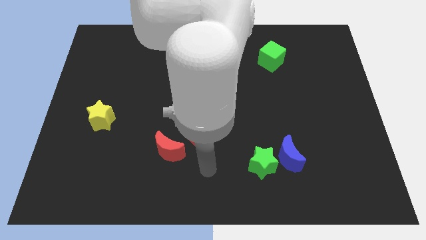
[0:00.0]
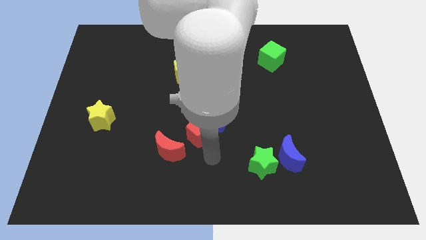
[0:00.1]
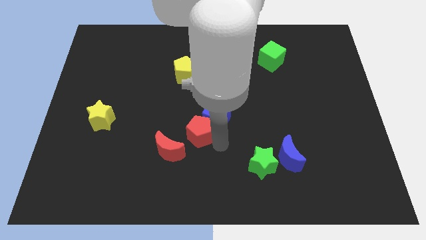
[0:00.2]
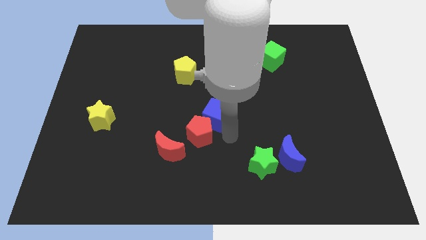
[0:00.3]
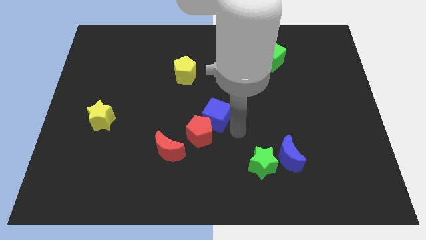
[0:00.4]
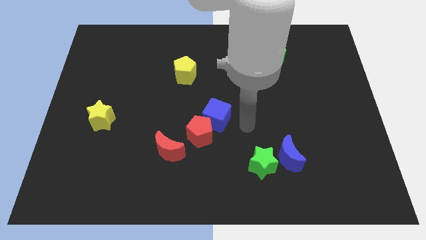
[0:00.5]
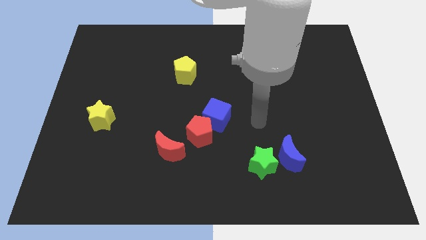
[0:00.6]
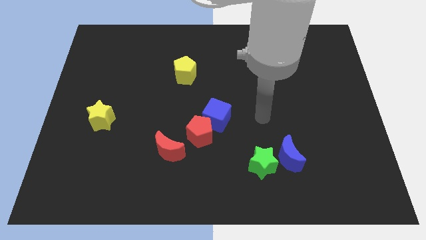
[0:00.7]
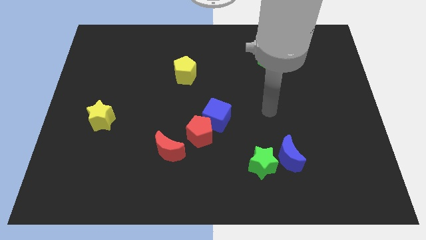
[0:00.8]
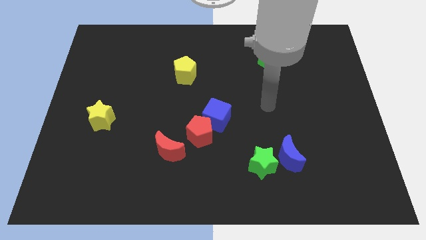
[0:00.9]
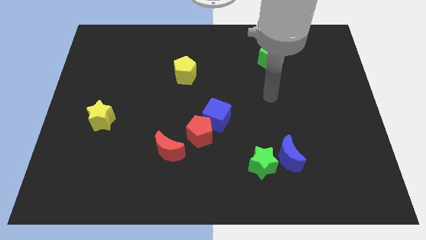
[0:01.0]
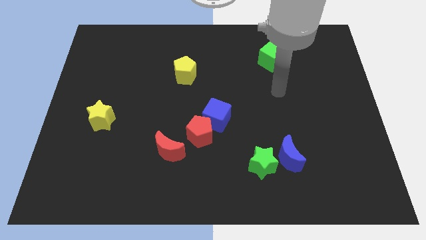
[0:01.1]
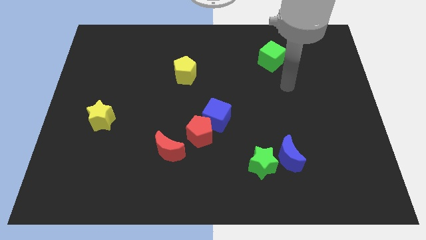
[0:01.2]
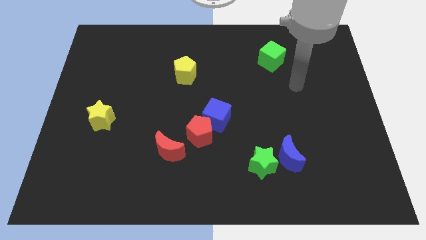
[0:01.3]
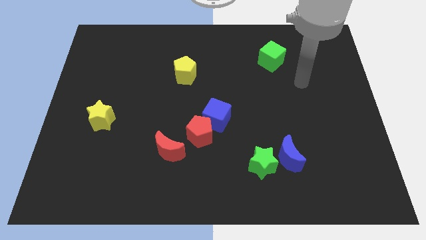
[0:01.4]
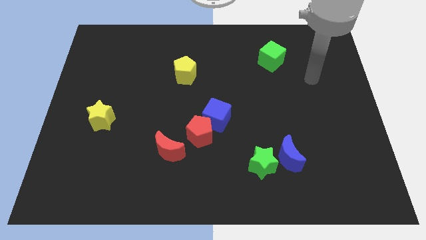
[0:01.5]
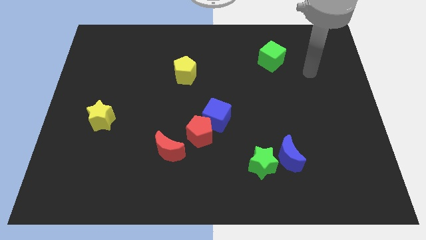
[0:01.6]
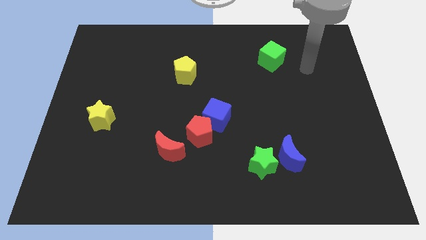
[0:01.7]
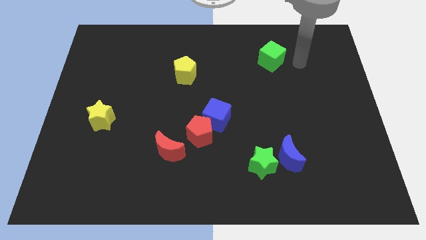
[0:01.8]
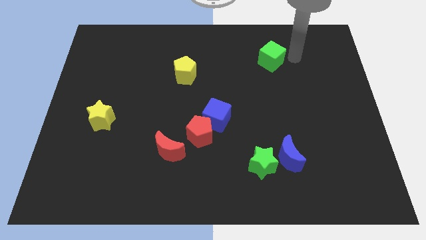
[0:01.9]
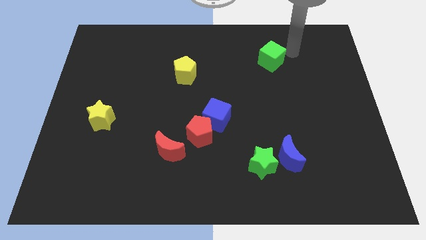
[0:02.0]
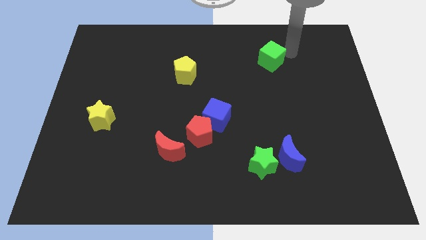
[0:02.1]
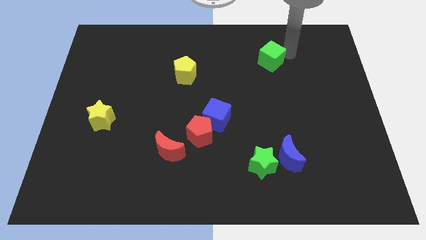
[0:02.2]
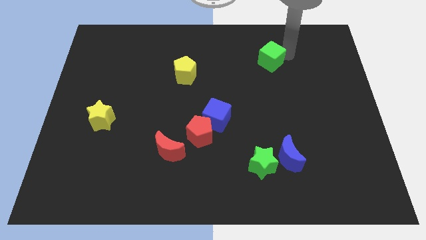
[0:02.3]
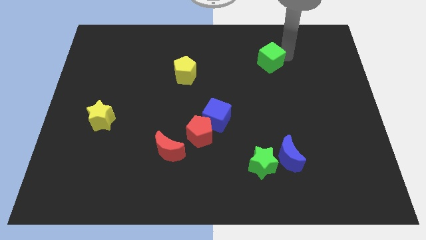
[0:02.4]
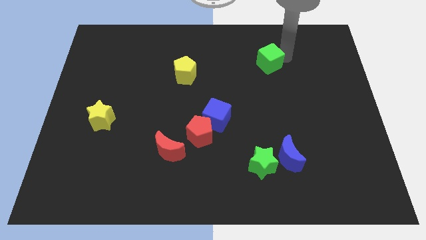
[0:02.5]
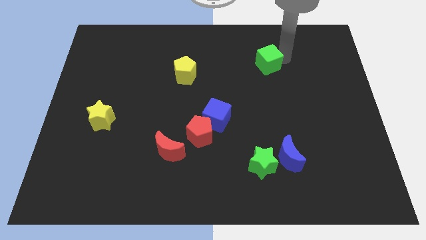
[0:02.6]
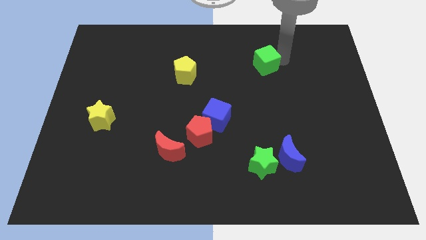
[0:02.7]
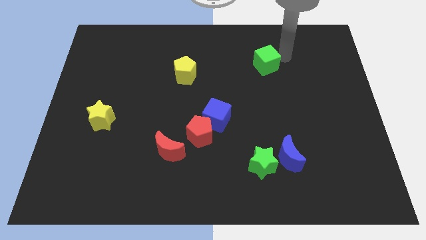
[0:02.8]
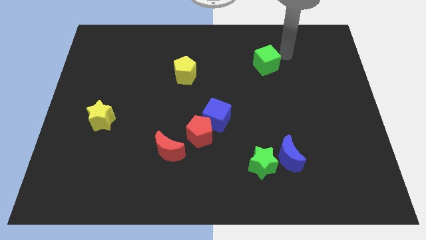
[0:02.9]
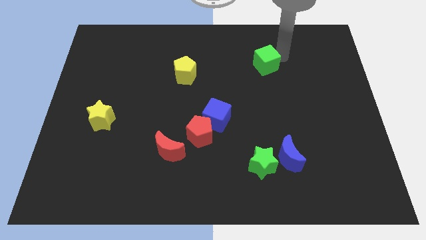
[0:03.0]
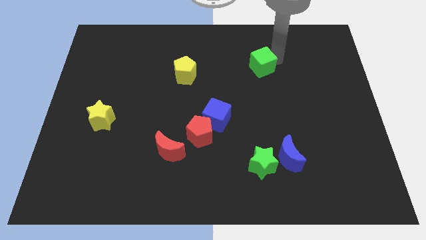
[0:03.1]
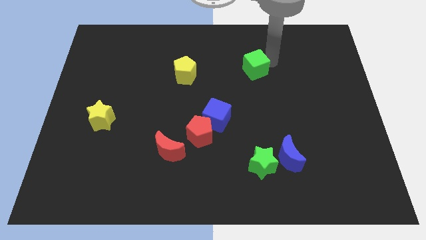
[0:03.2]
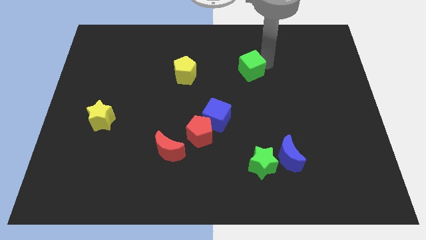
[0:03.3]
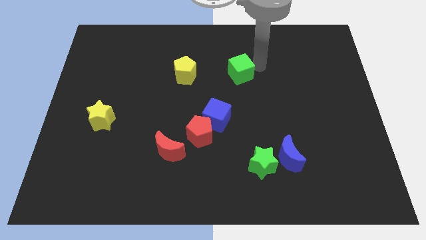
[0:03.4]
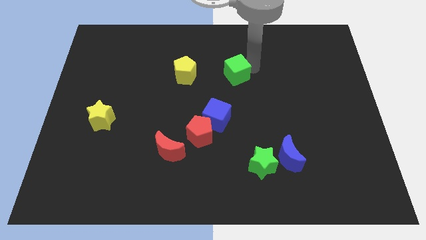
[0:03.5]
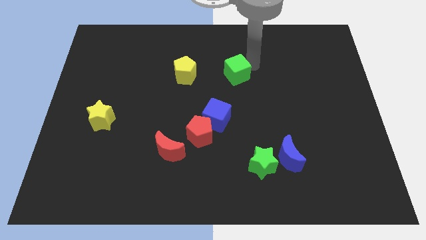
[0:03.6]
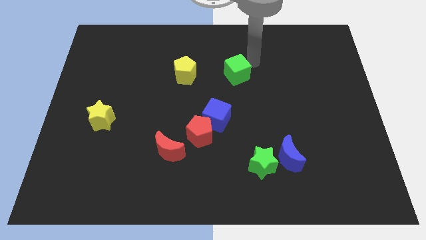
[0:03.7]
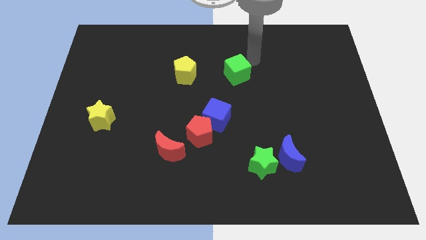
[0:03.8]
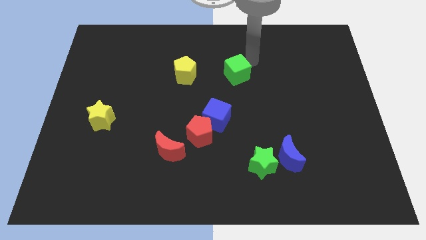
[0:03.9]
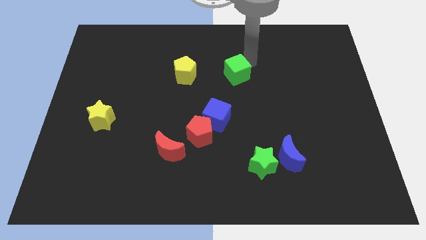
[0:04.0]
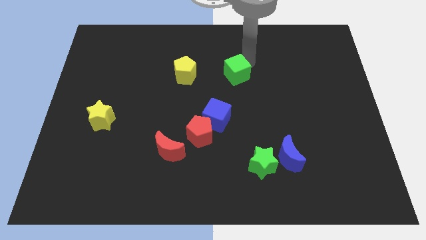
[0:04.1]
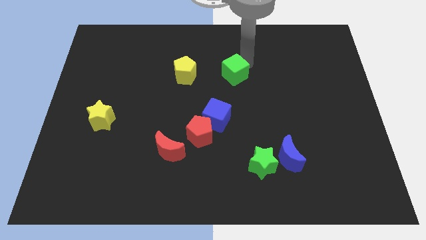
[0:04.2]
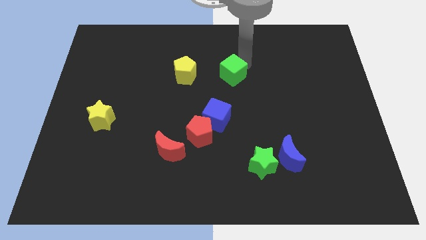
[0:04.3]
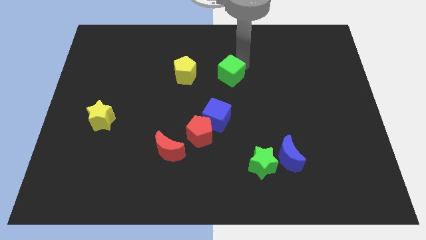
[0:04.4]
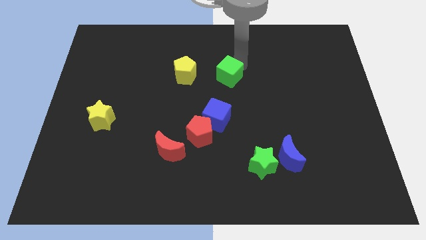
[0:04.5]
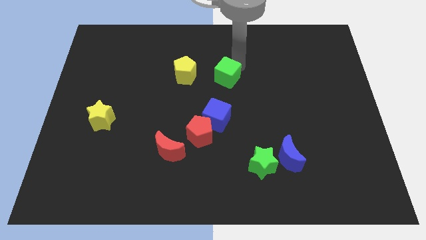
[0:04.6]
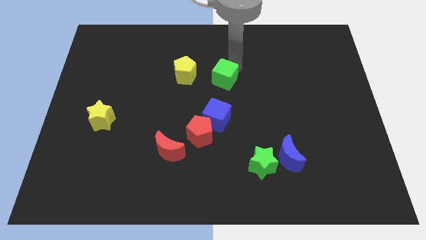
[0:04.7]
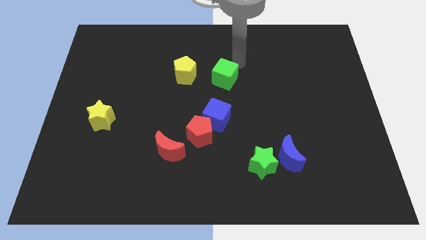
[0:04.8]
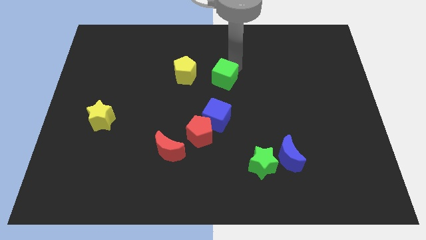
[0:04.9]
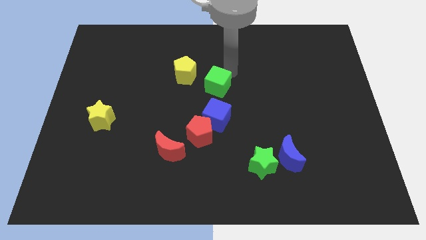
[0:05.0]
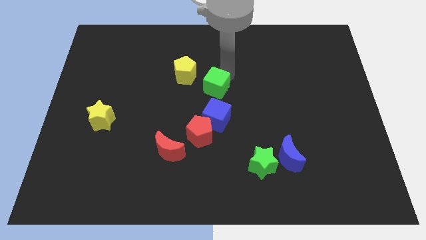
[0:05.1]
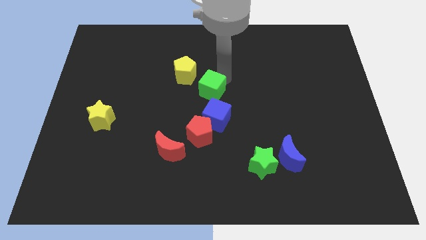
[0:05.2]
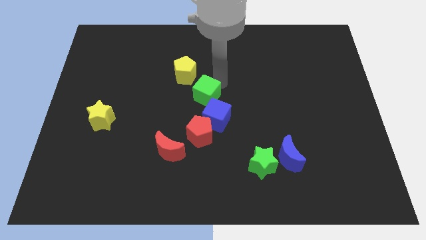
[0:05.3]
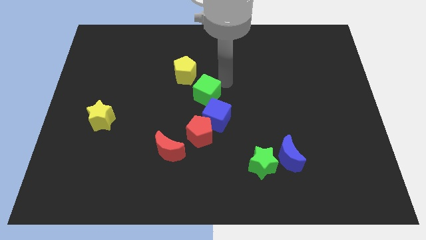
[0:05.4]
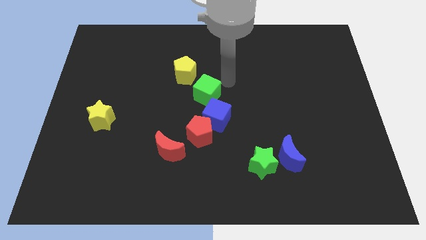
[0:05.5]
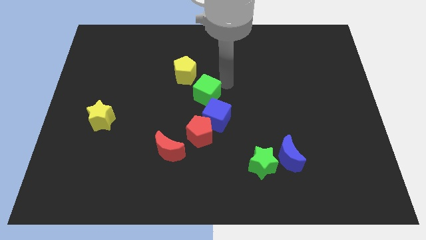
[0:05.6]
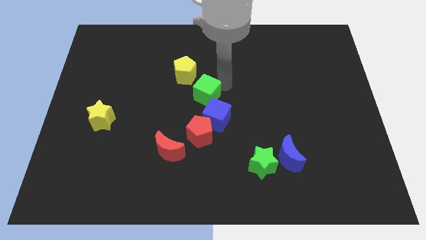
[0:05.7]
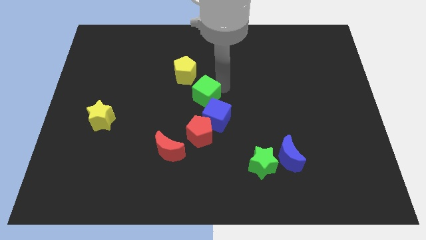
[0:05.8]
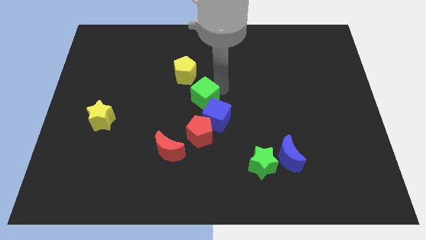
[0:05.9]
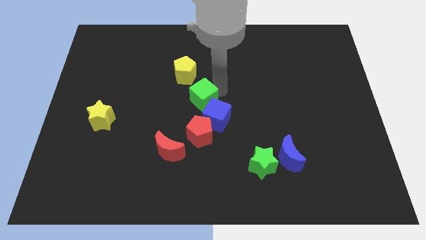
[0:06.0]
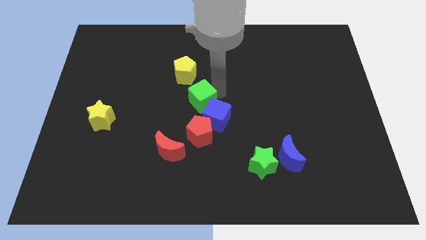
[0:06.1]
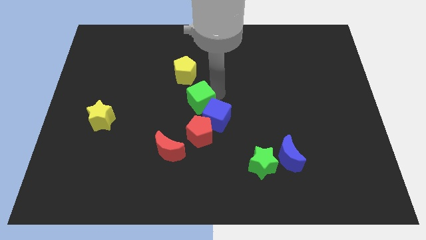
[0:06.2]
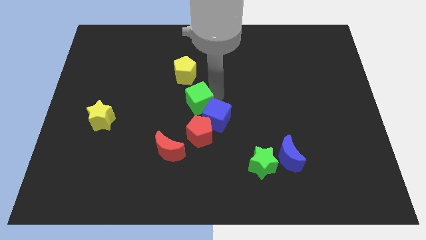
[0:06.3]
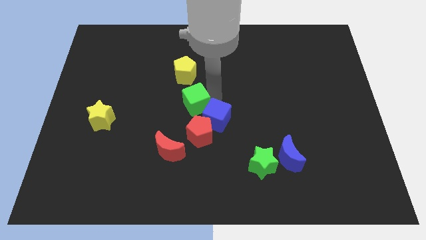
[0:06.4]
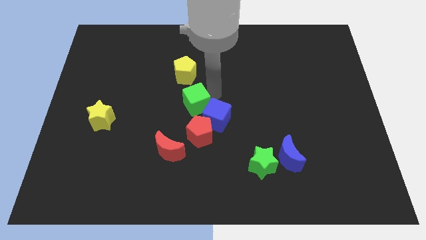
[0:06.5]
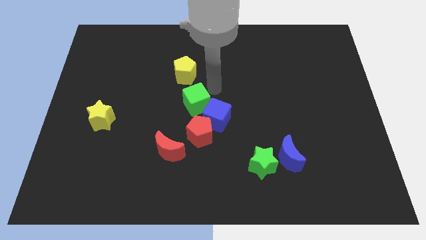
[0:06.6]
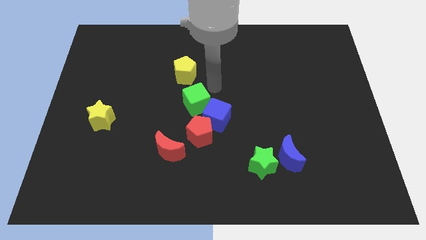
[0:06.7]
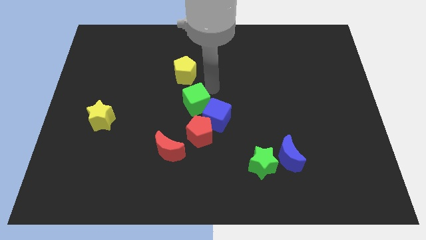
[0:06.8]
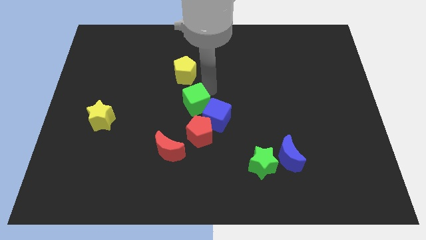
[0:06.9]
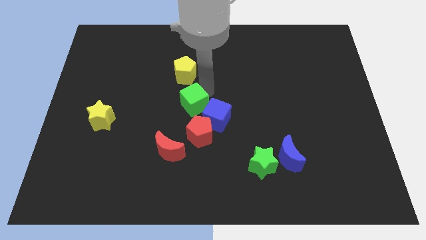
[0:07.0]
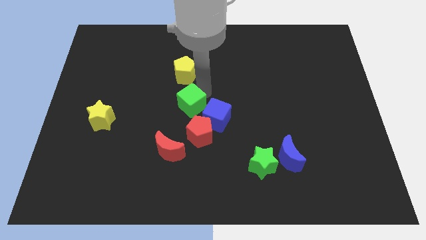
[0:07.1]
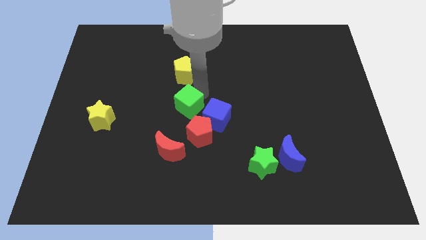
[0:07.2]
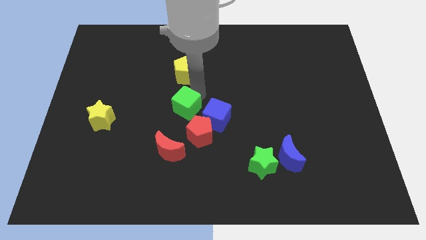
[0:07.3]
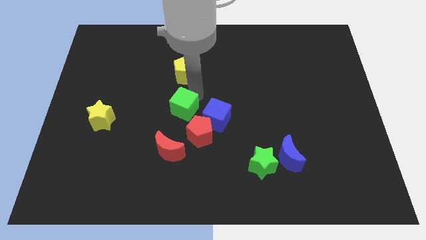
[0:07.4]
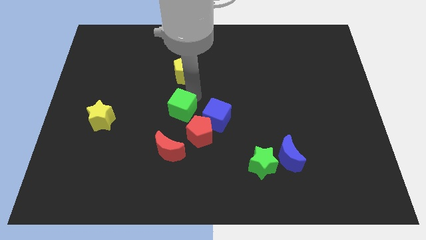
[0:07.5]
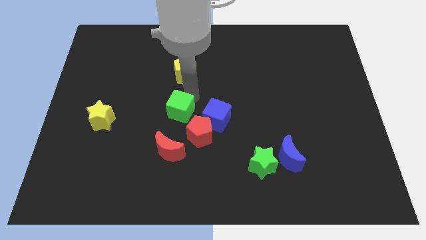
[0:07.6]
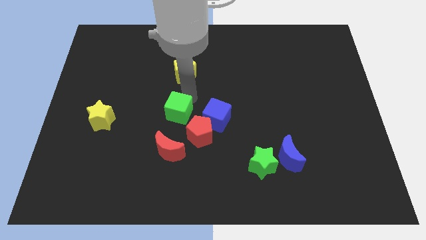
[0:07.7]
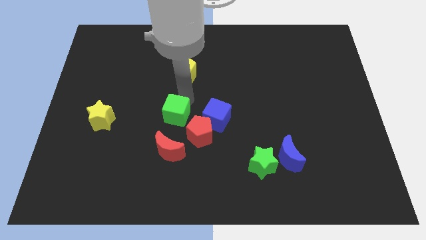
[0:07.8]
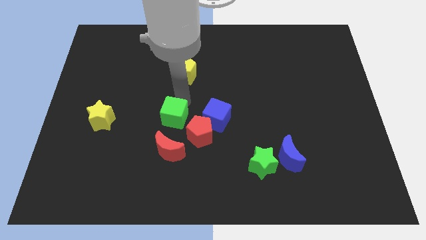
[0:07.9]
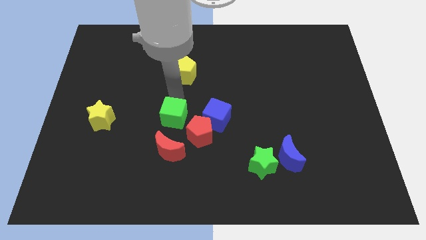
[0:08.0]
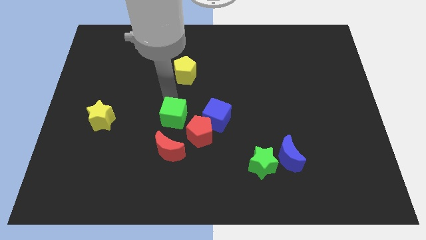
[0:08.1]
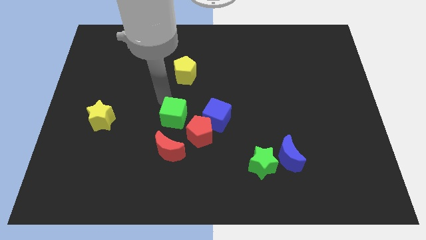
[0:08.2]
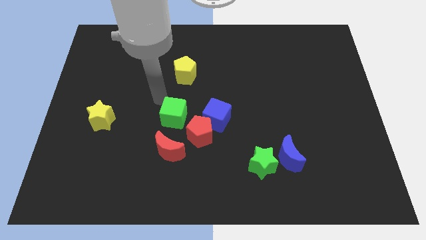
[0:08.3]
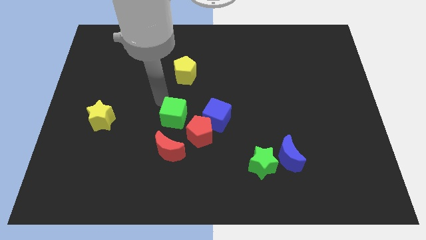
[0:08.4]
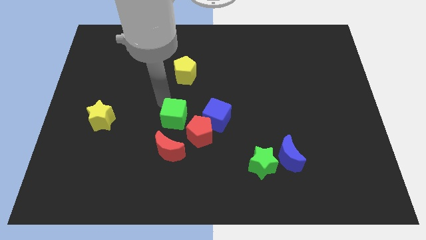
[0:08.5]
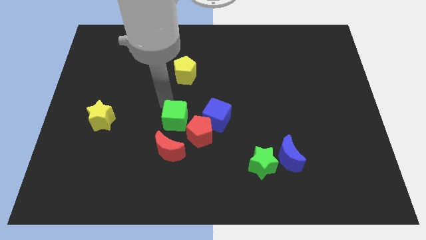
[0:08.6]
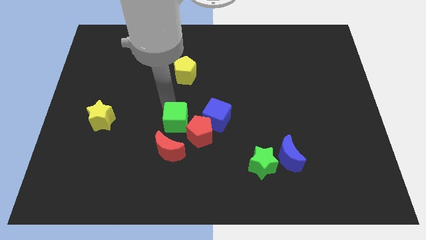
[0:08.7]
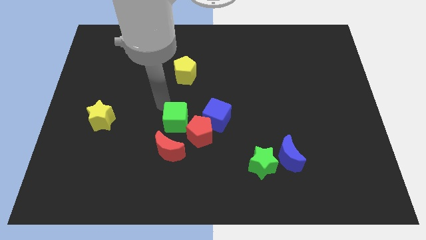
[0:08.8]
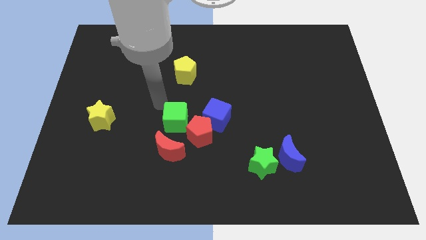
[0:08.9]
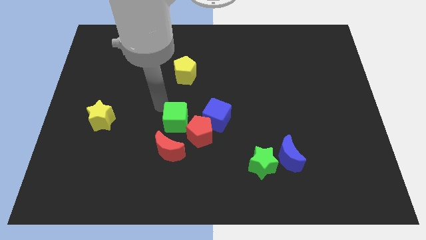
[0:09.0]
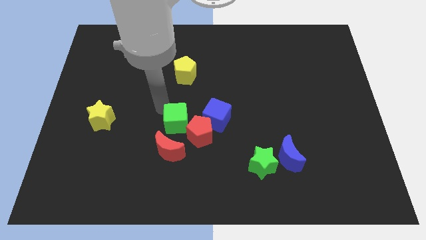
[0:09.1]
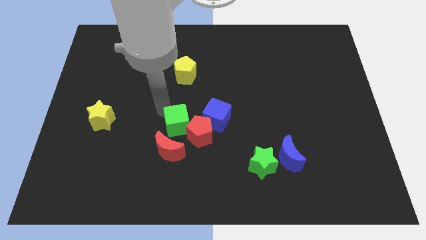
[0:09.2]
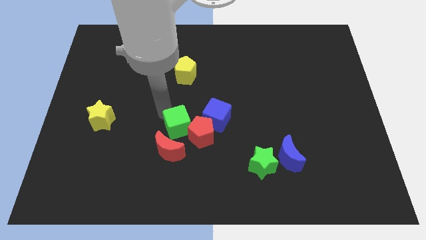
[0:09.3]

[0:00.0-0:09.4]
slide the green cube to the bottom left of the blue cube
